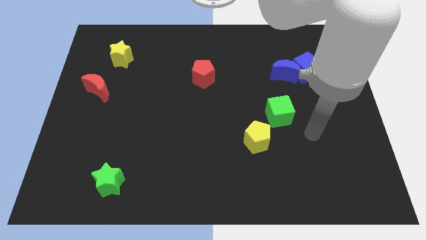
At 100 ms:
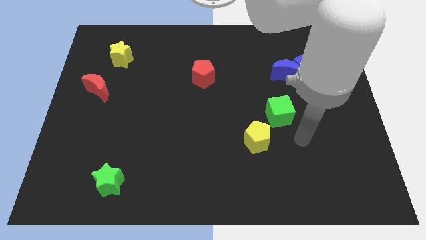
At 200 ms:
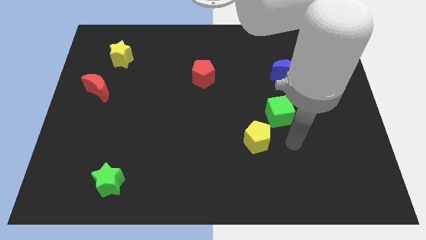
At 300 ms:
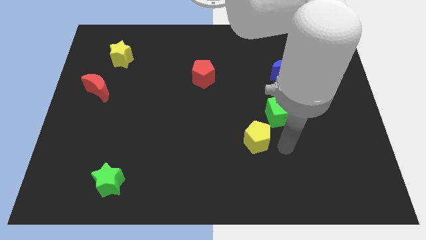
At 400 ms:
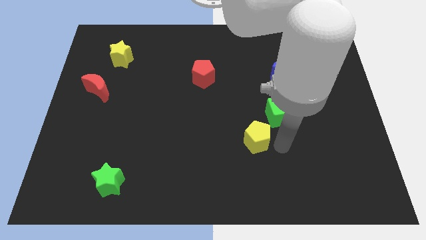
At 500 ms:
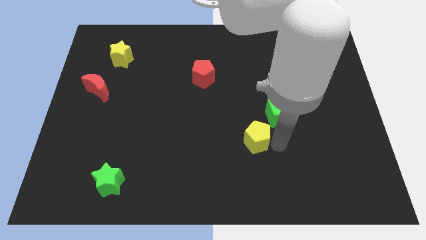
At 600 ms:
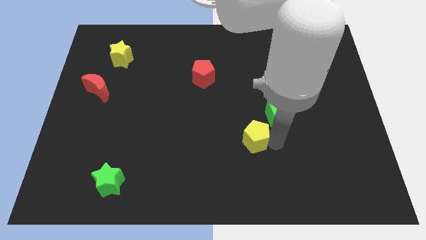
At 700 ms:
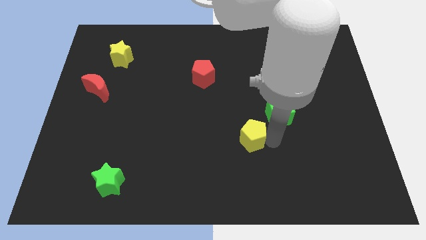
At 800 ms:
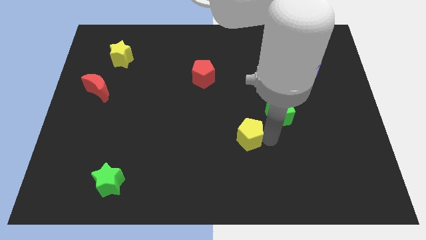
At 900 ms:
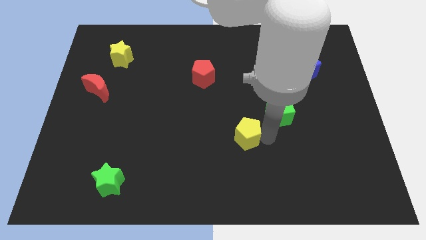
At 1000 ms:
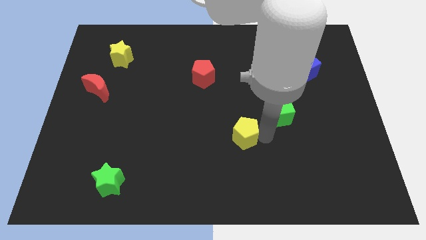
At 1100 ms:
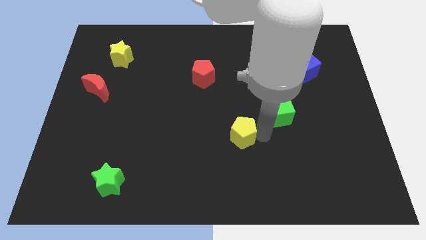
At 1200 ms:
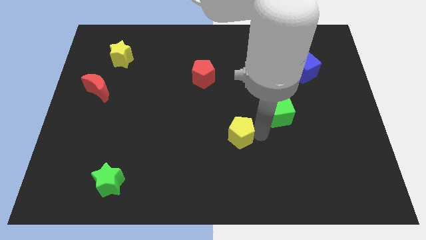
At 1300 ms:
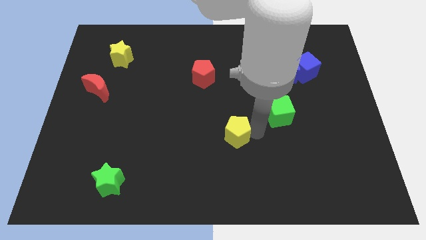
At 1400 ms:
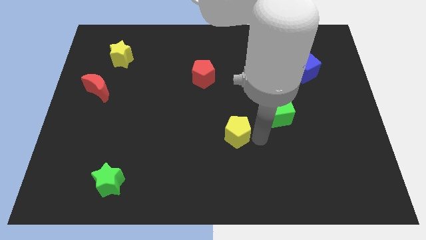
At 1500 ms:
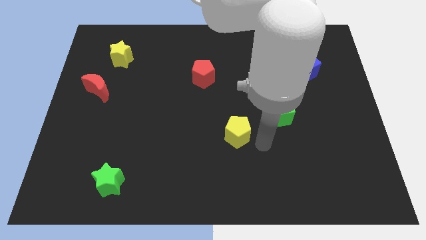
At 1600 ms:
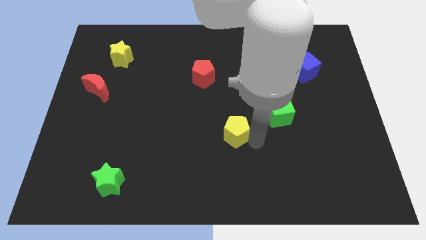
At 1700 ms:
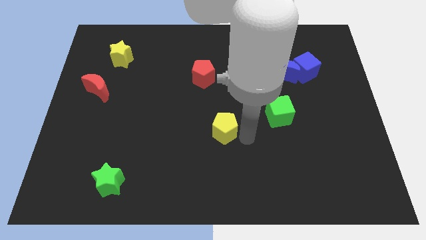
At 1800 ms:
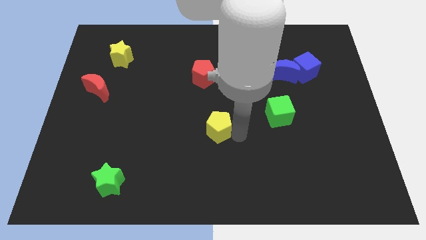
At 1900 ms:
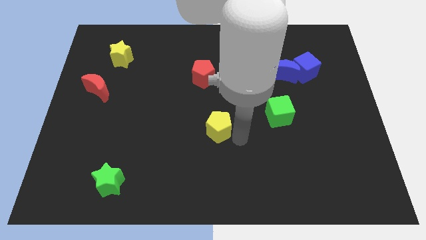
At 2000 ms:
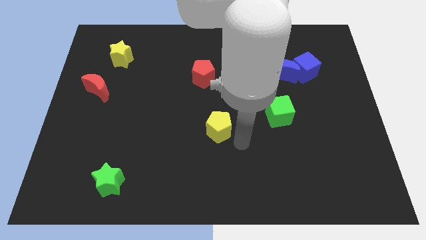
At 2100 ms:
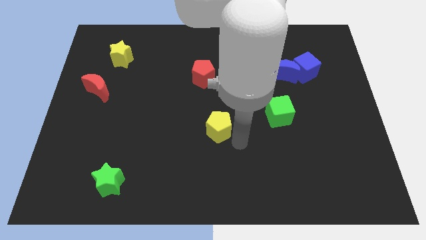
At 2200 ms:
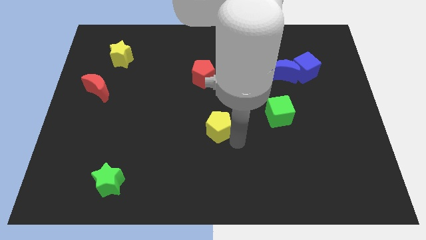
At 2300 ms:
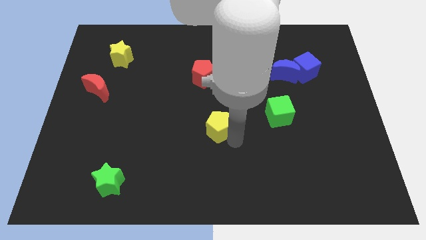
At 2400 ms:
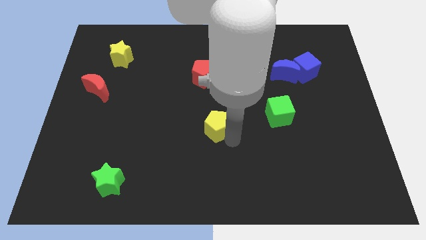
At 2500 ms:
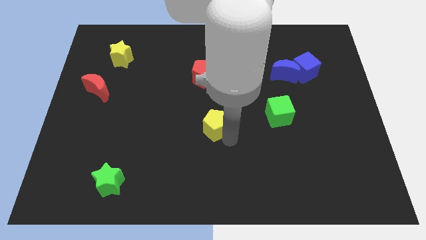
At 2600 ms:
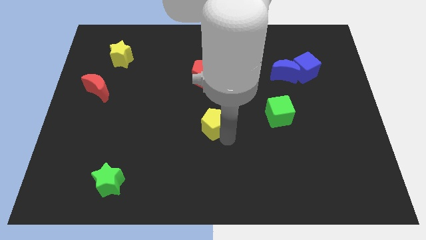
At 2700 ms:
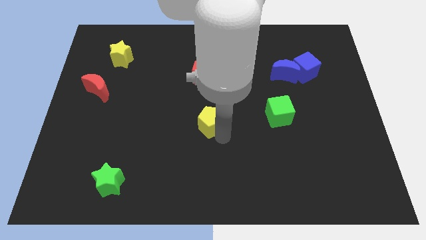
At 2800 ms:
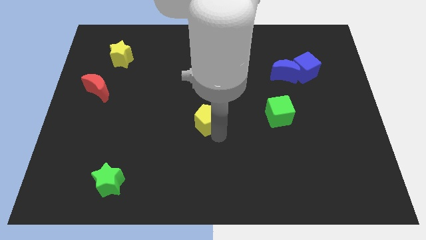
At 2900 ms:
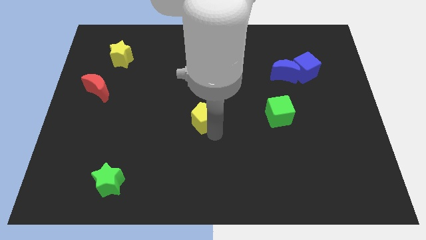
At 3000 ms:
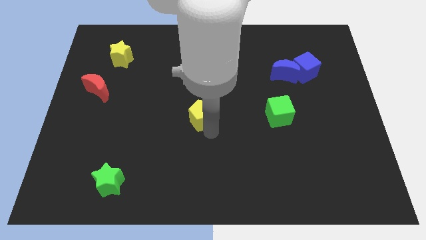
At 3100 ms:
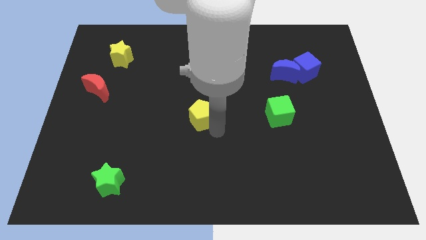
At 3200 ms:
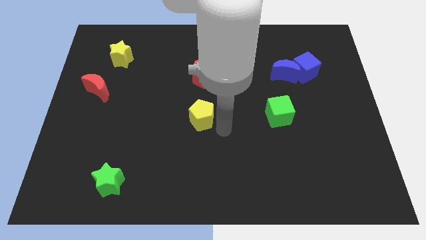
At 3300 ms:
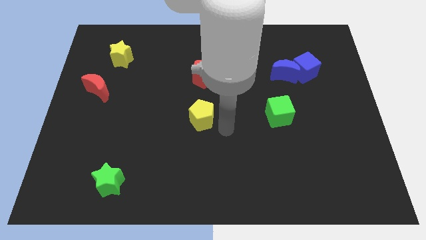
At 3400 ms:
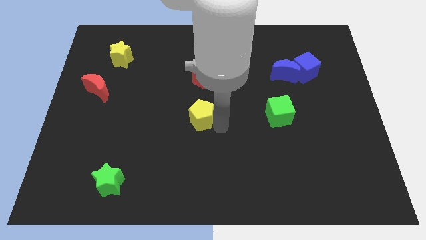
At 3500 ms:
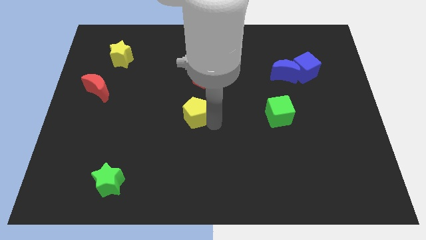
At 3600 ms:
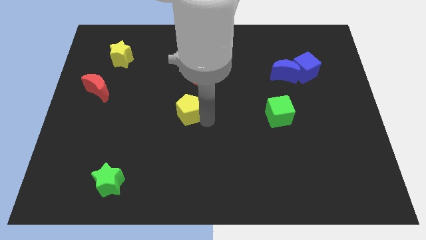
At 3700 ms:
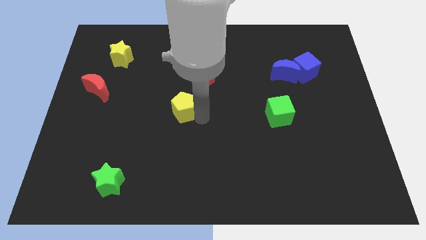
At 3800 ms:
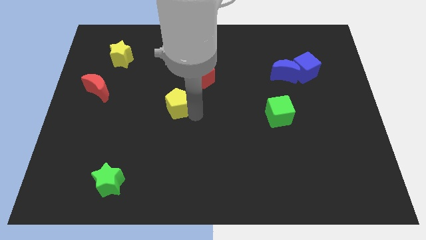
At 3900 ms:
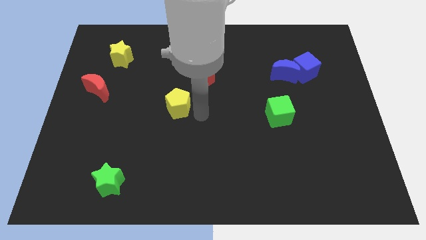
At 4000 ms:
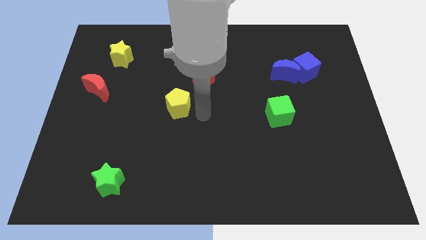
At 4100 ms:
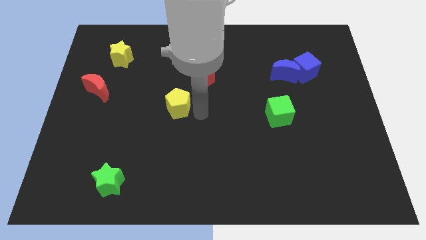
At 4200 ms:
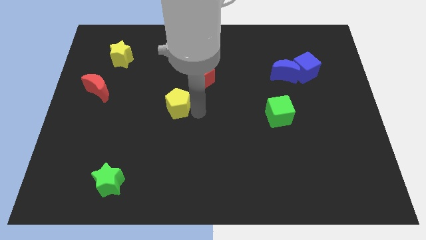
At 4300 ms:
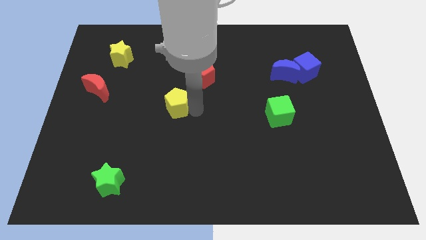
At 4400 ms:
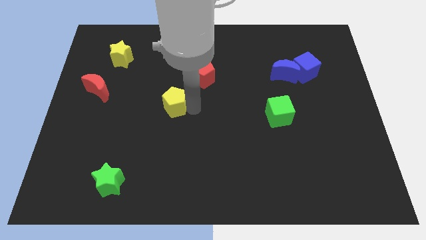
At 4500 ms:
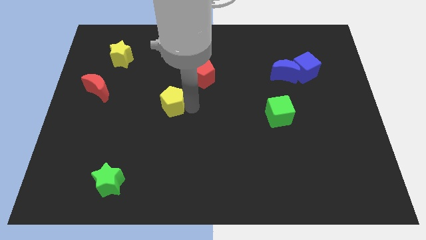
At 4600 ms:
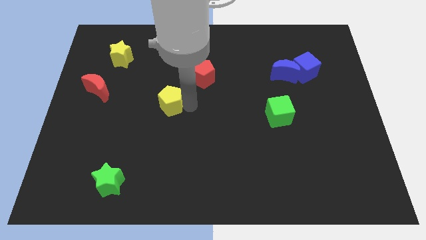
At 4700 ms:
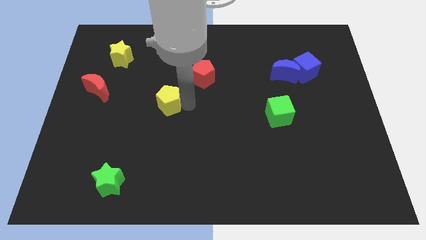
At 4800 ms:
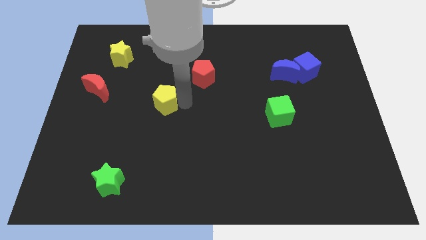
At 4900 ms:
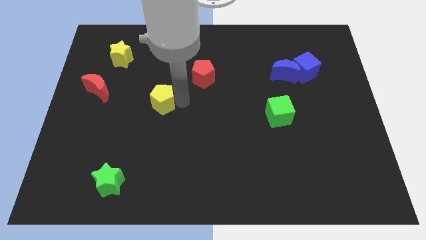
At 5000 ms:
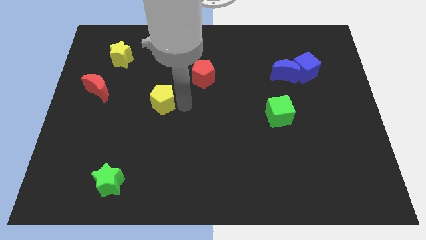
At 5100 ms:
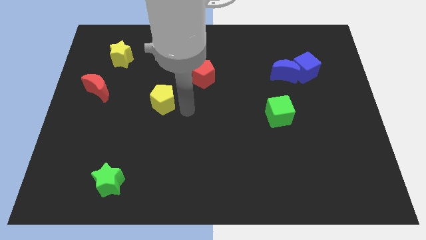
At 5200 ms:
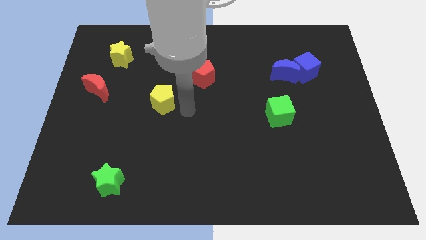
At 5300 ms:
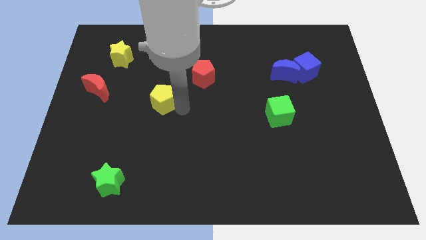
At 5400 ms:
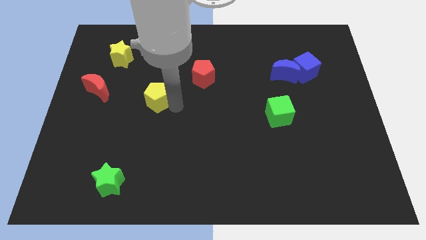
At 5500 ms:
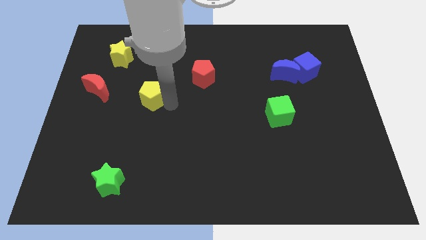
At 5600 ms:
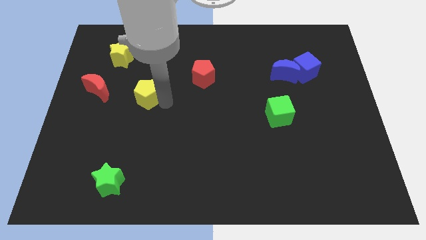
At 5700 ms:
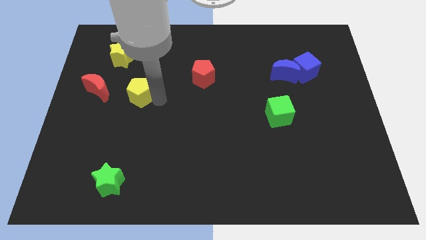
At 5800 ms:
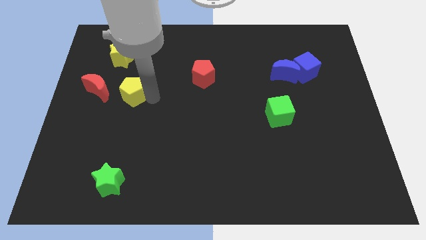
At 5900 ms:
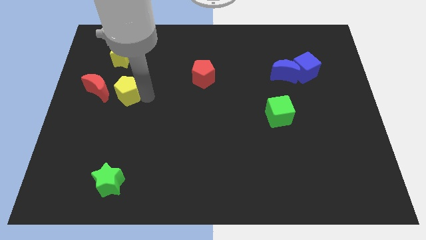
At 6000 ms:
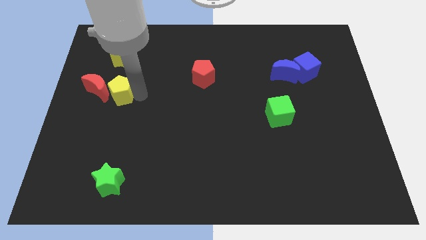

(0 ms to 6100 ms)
put the yellow pentagon next to the red moon
